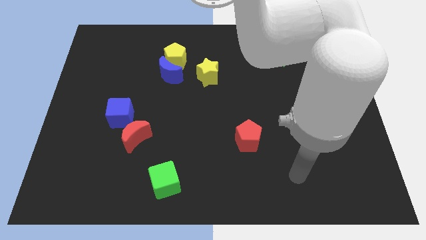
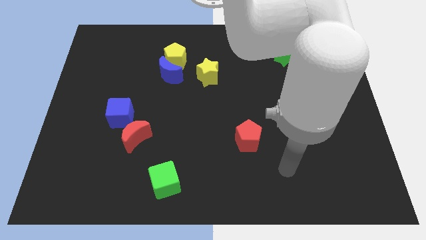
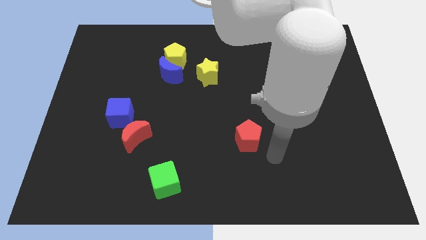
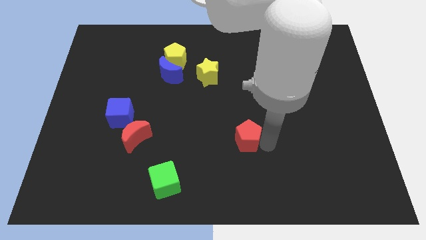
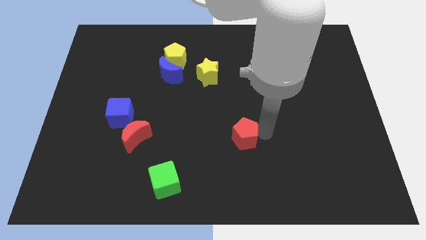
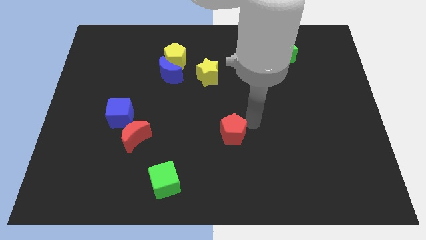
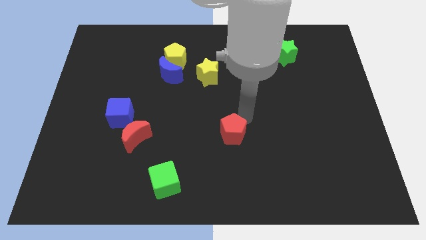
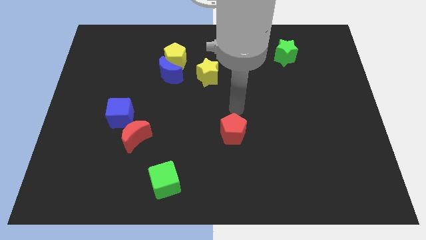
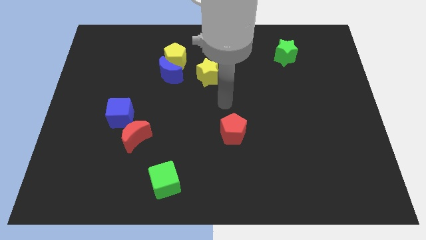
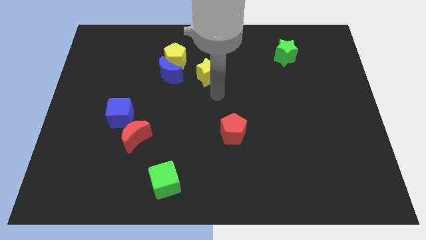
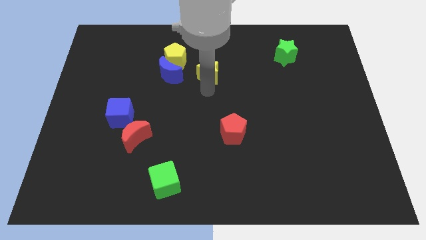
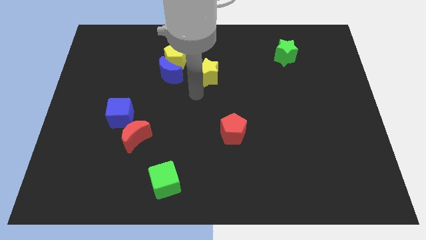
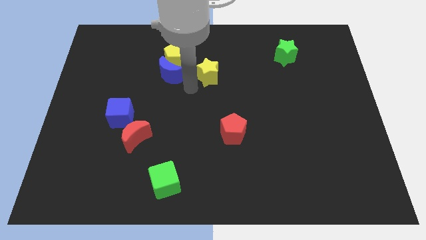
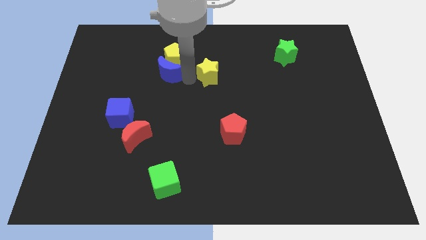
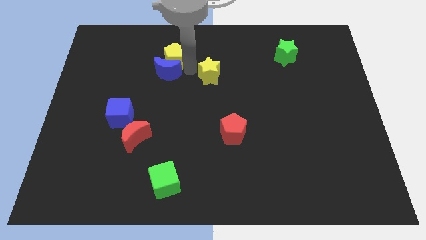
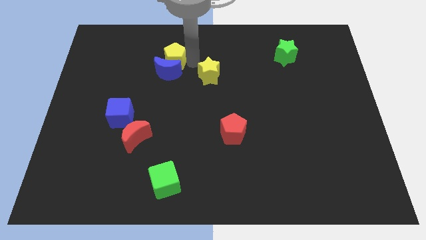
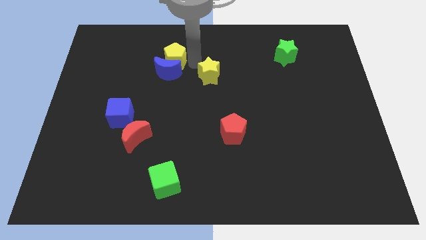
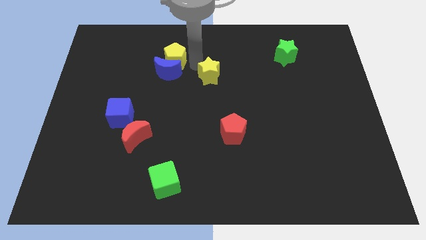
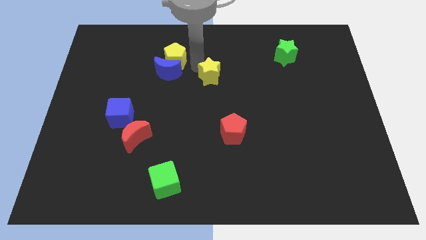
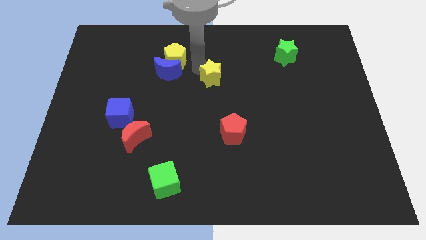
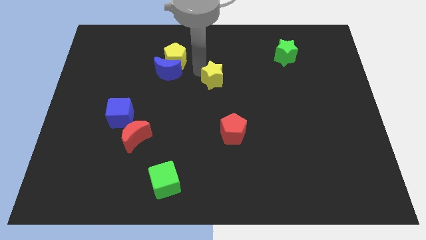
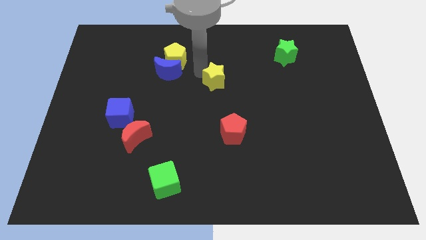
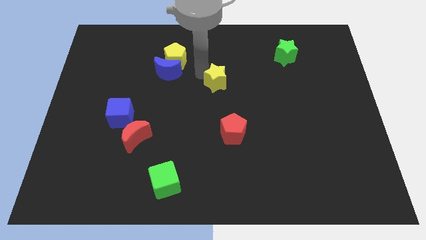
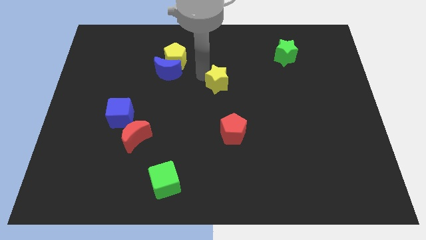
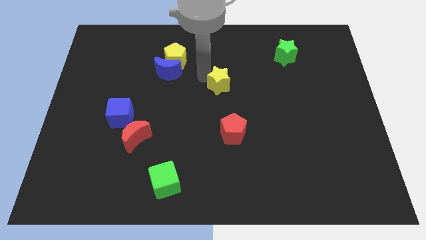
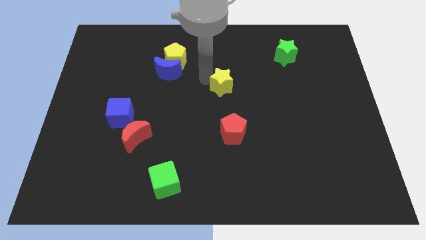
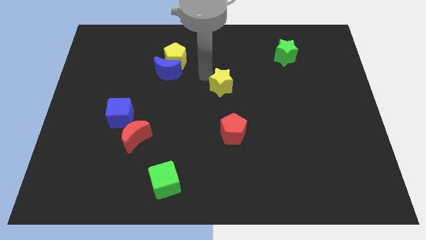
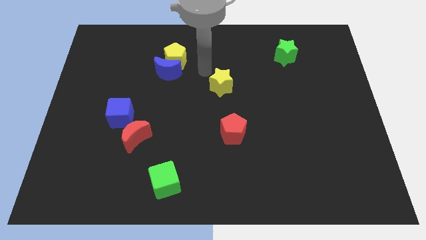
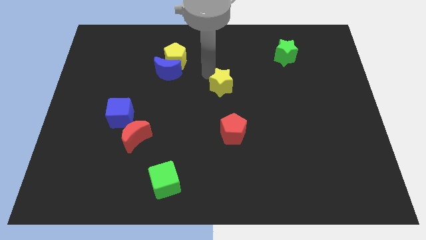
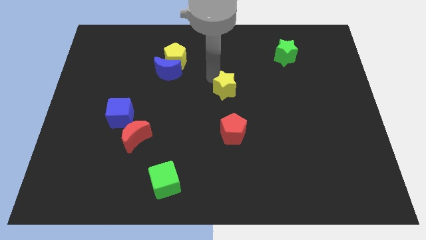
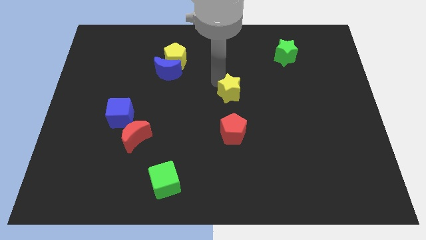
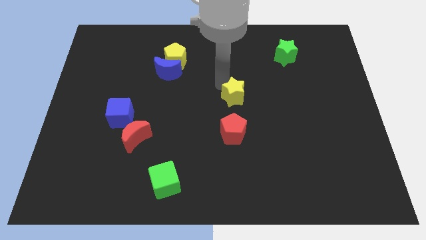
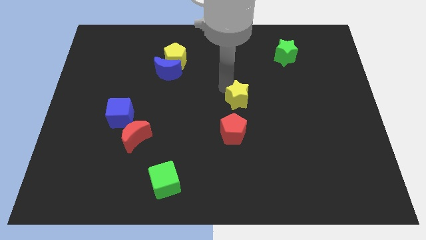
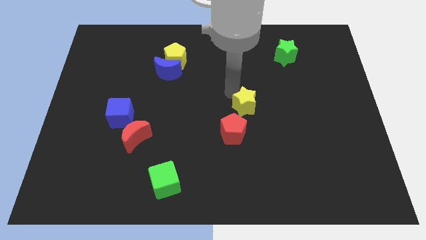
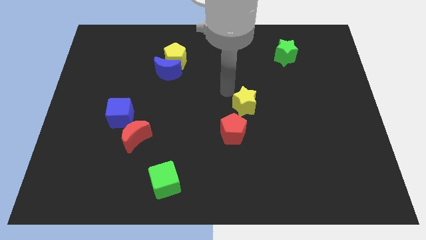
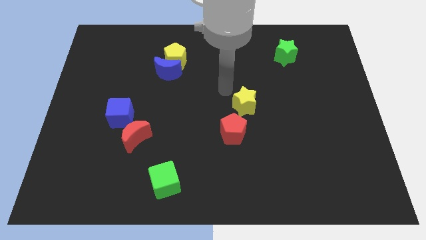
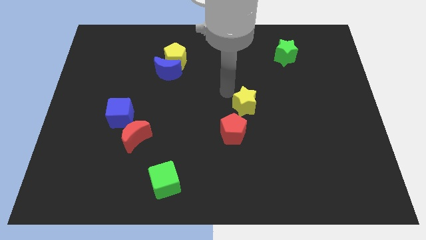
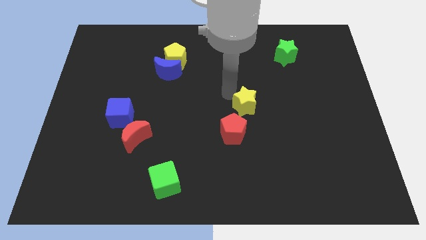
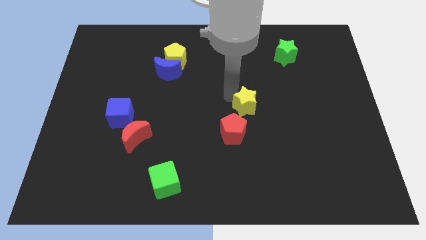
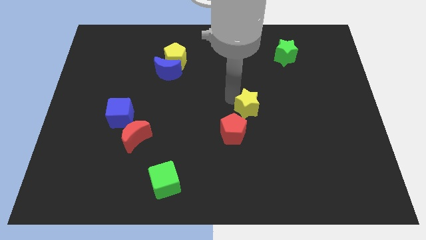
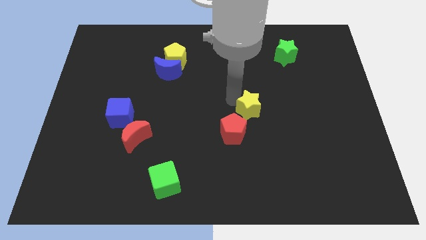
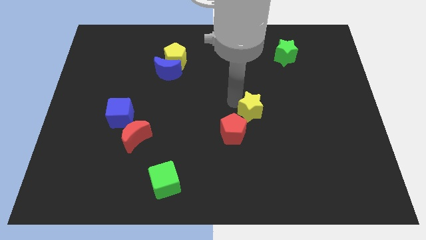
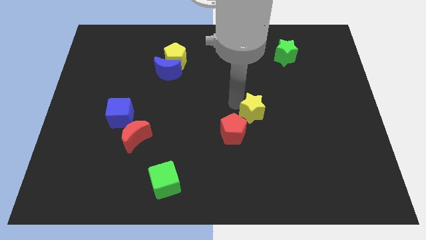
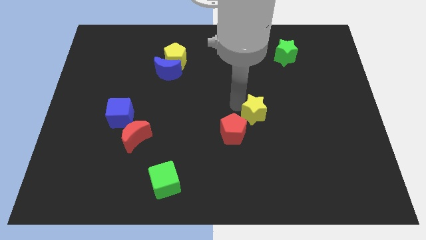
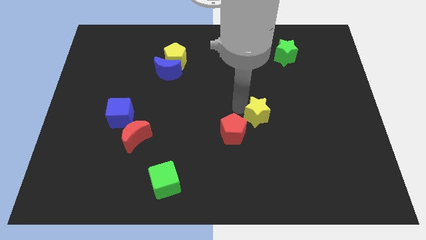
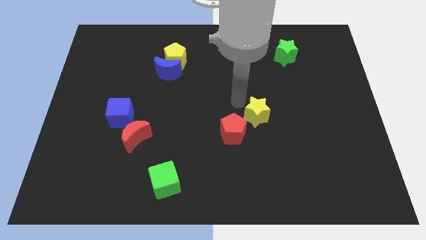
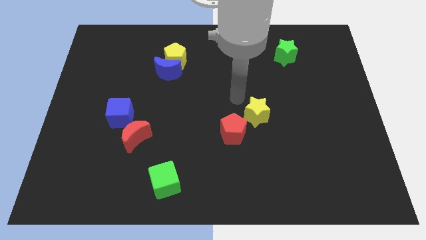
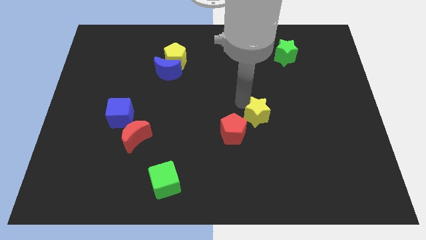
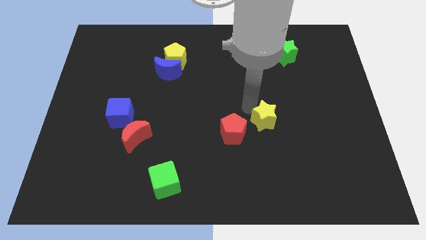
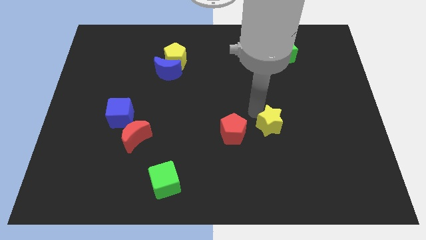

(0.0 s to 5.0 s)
move the yellow star downwards and then right

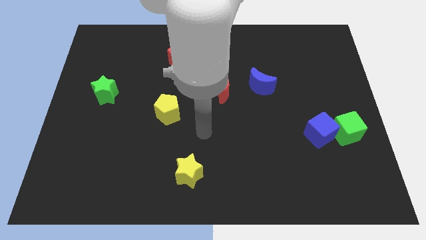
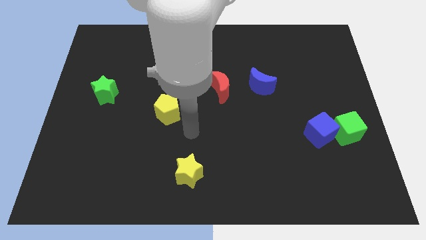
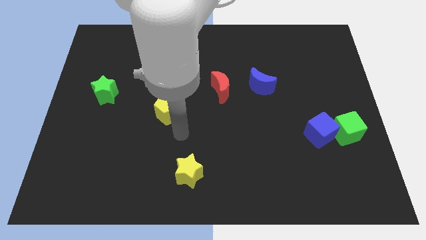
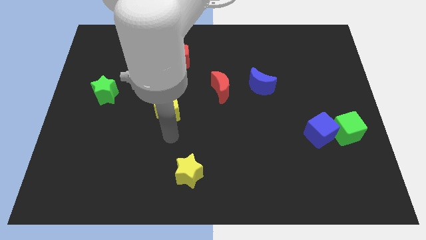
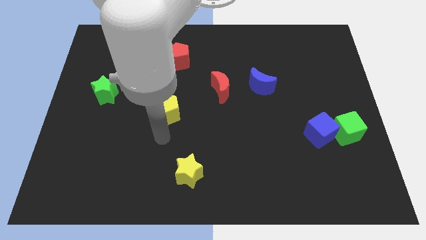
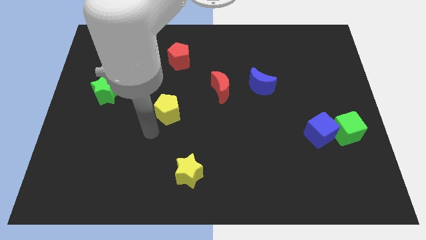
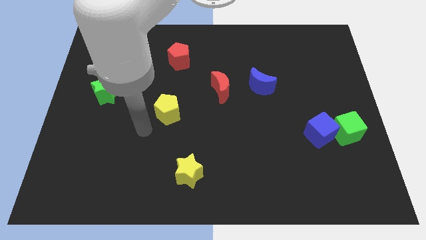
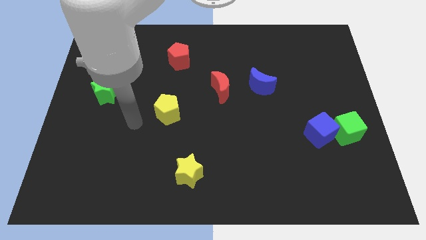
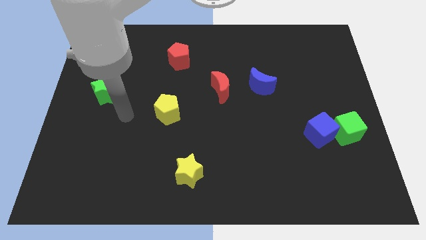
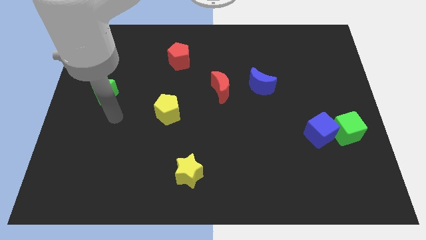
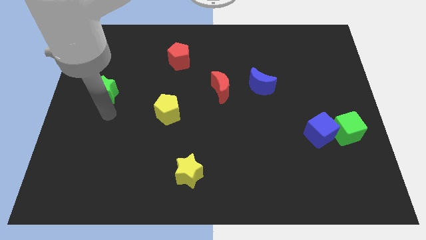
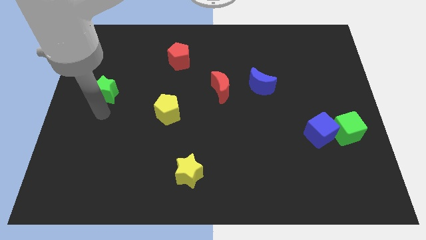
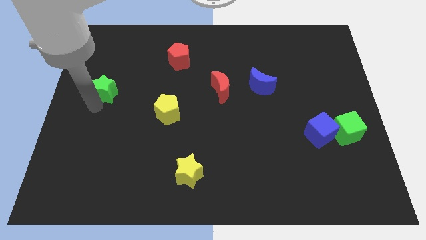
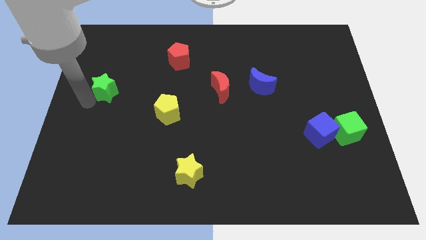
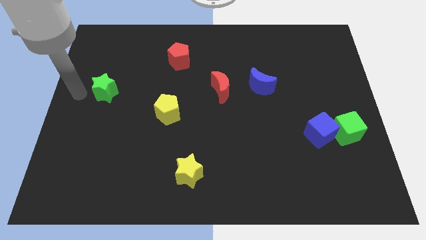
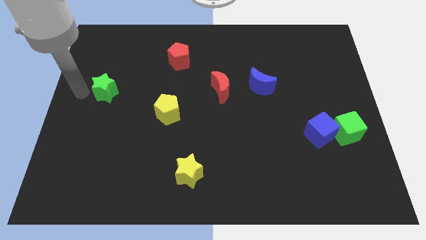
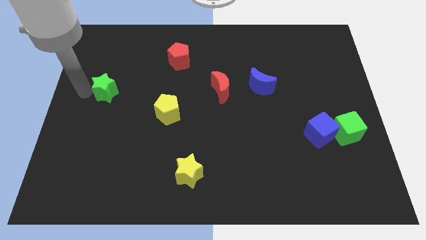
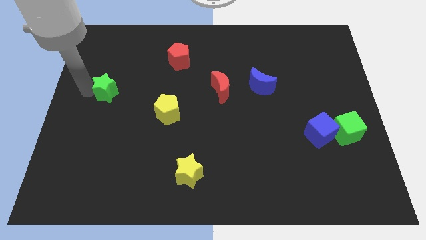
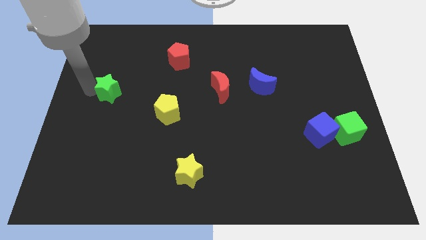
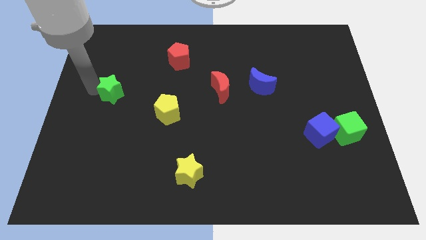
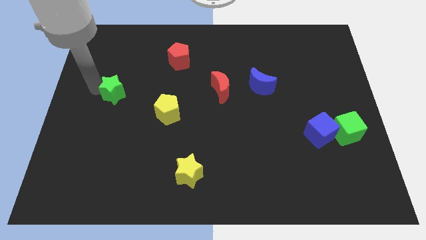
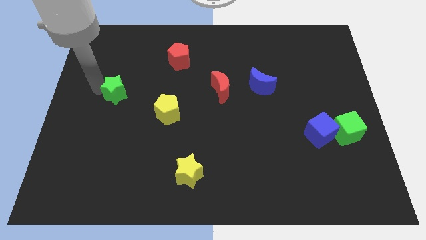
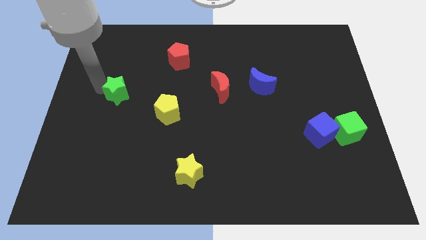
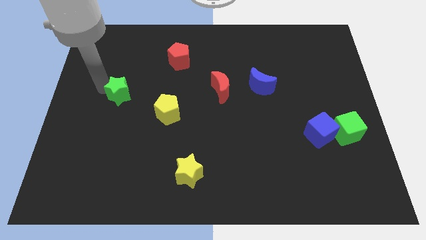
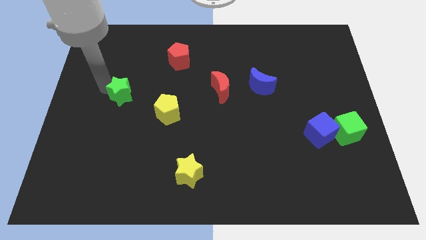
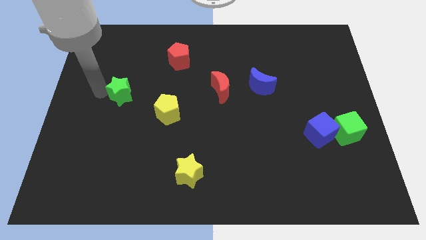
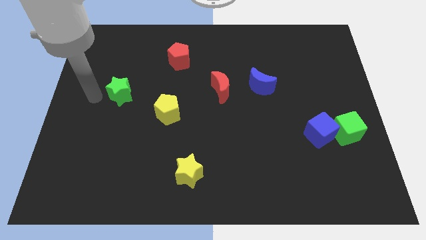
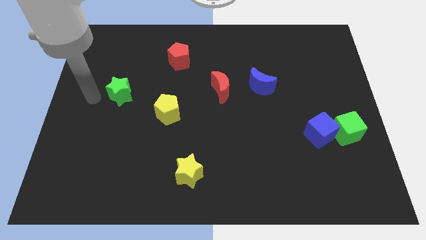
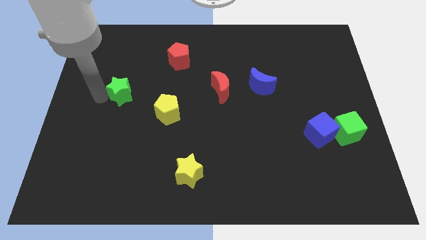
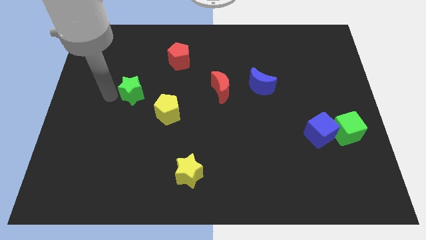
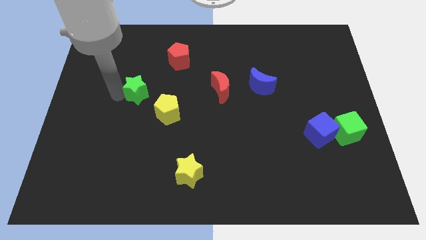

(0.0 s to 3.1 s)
move the green star right somewhat

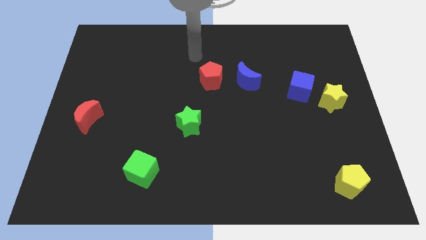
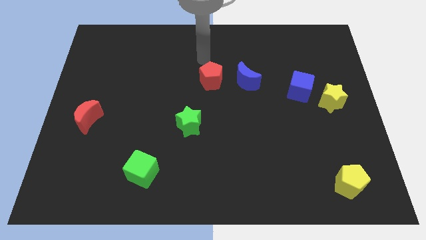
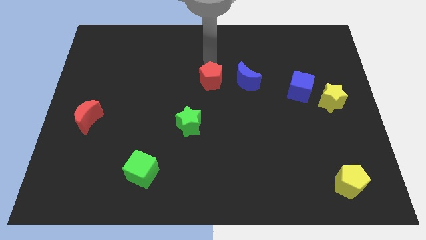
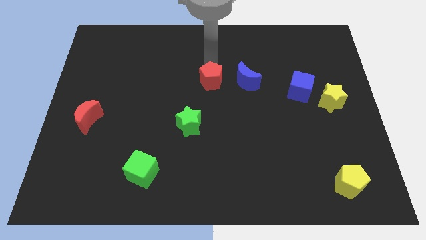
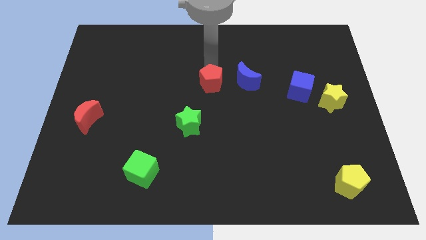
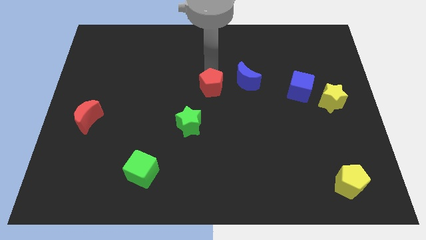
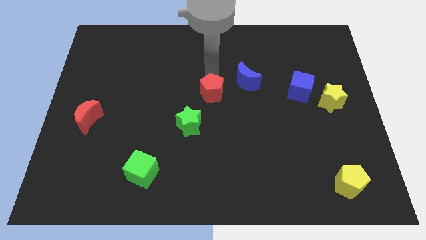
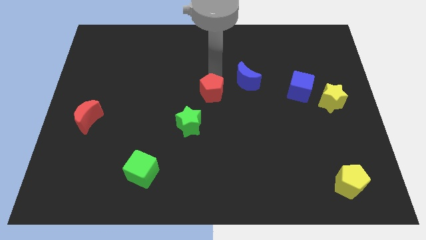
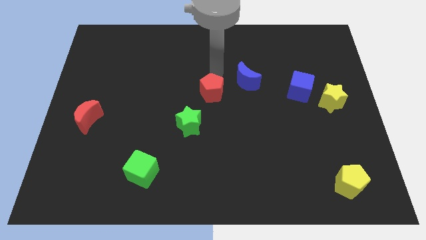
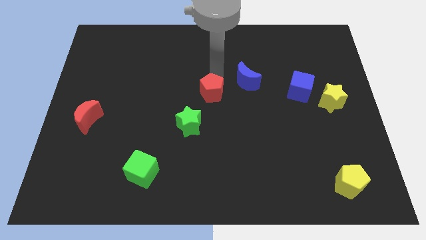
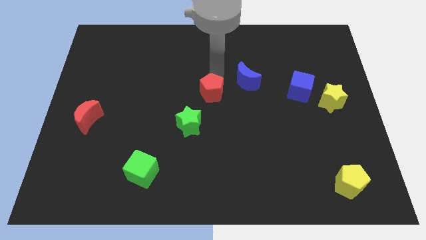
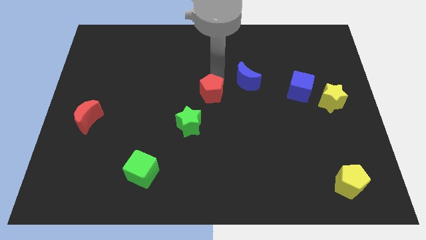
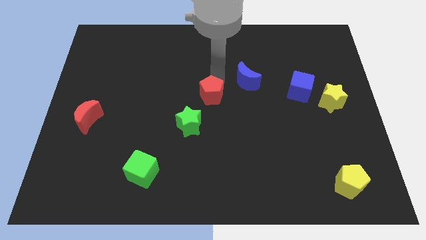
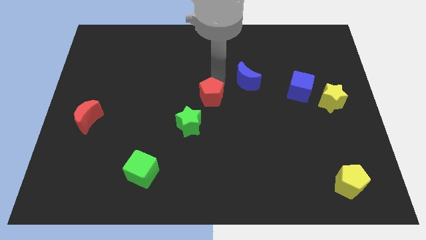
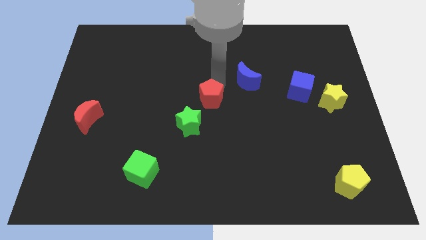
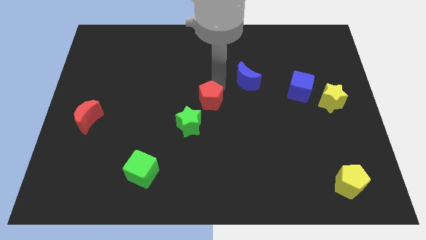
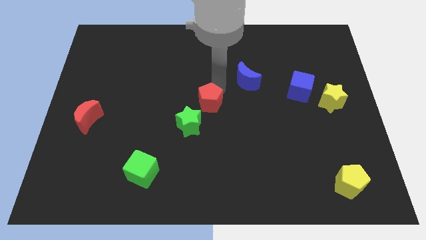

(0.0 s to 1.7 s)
slightly slide the red pentagon downwards
